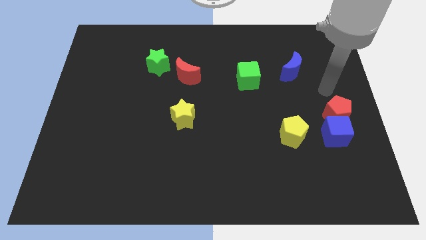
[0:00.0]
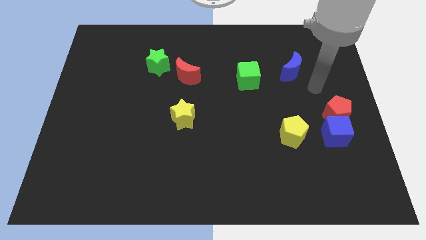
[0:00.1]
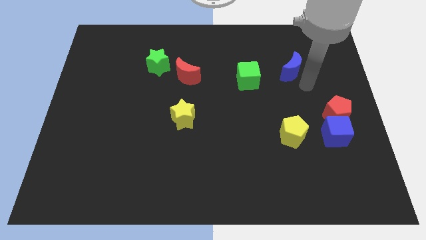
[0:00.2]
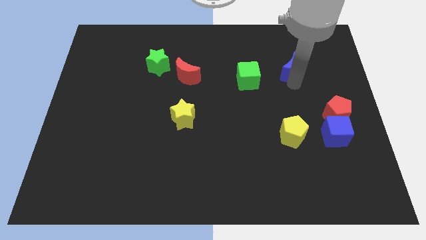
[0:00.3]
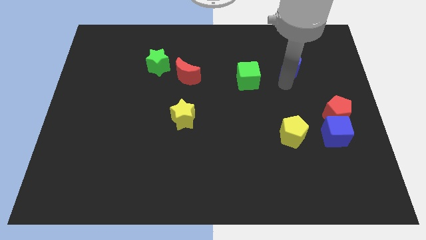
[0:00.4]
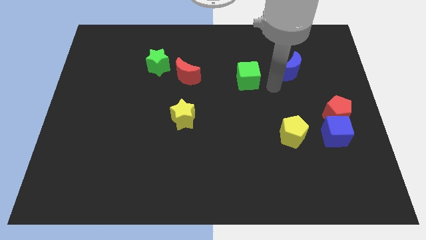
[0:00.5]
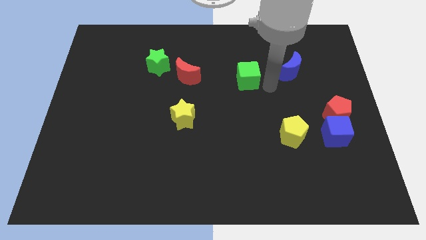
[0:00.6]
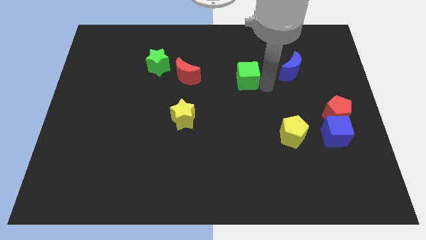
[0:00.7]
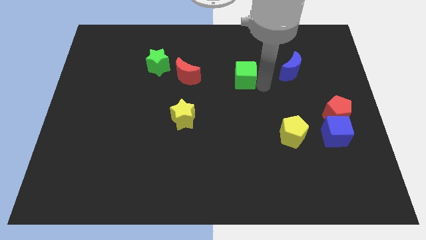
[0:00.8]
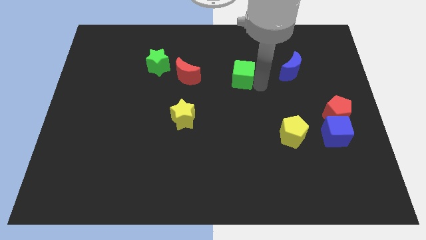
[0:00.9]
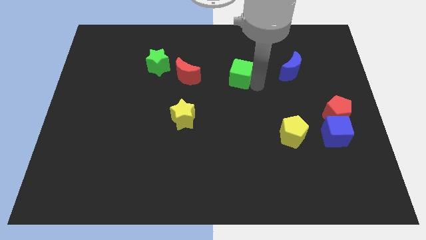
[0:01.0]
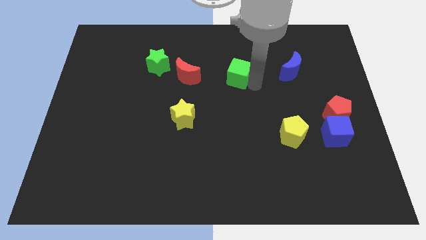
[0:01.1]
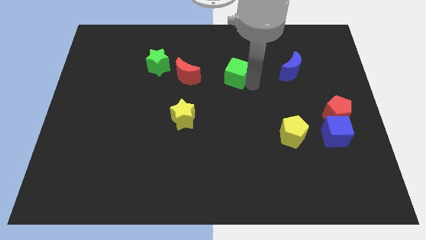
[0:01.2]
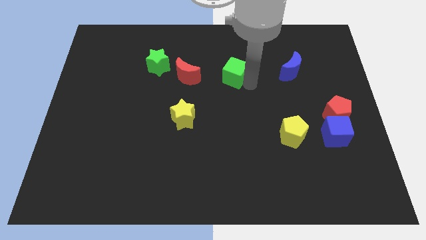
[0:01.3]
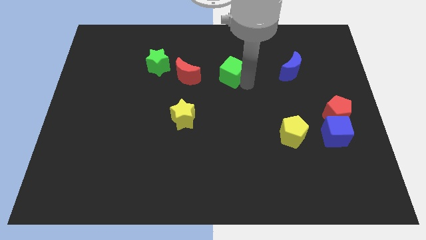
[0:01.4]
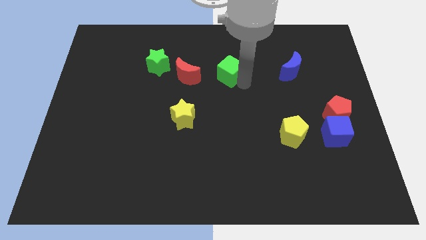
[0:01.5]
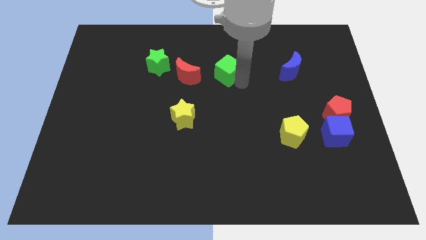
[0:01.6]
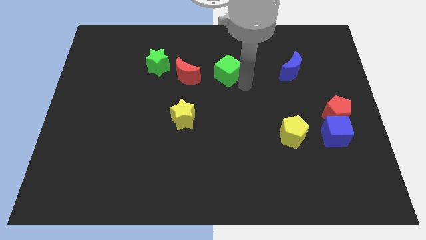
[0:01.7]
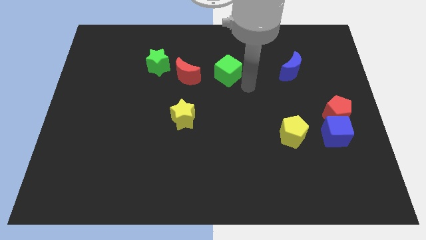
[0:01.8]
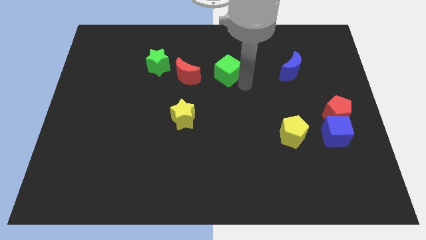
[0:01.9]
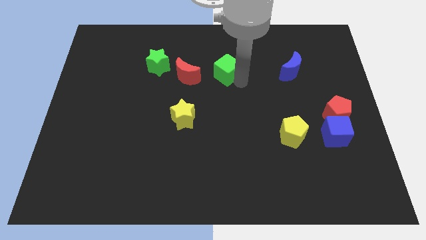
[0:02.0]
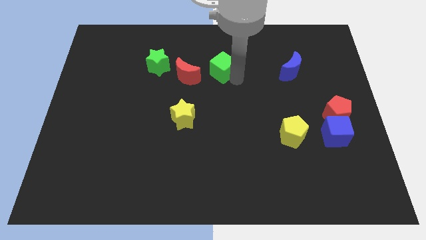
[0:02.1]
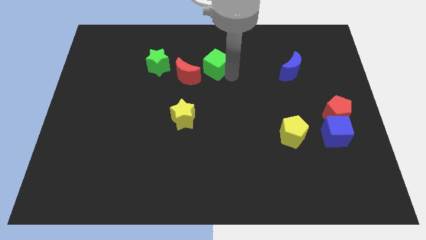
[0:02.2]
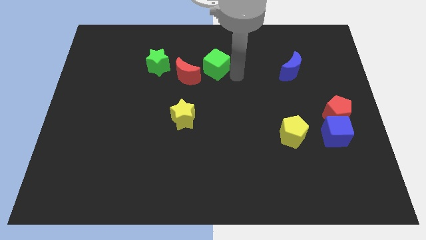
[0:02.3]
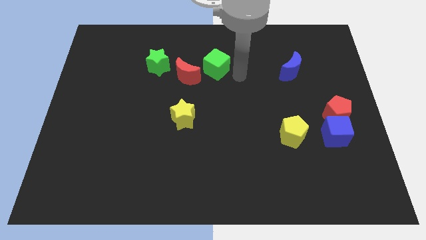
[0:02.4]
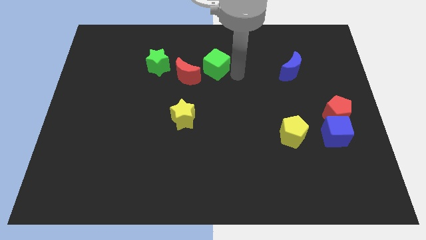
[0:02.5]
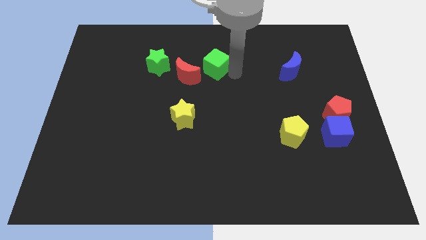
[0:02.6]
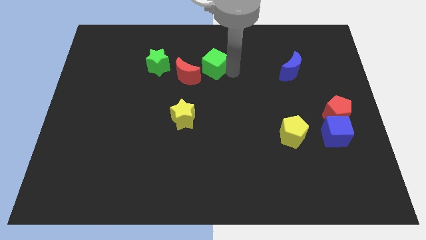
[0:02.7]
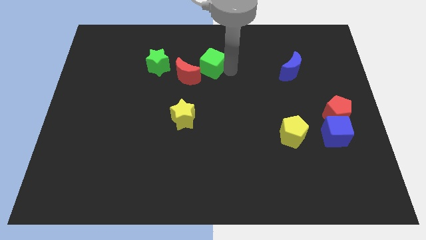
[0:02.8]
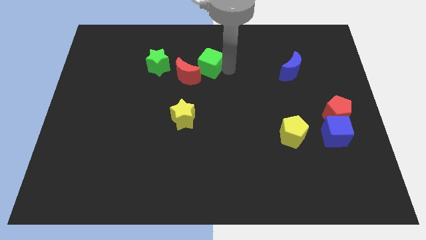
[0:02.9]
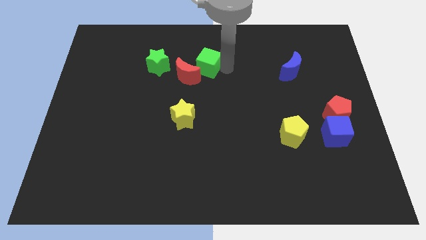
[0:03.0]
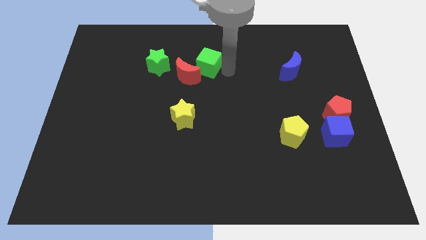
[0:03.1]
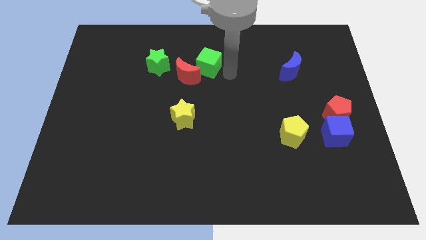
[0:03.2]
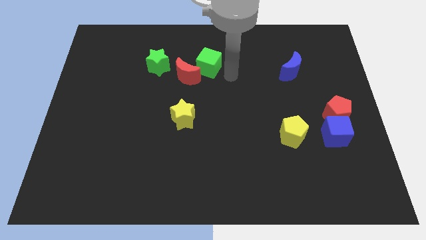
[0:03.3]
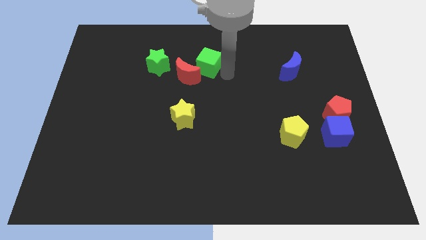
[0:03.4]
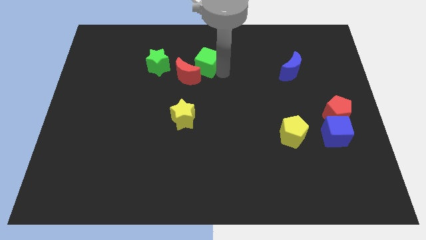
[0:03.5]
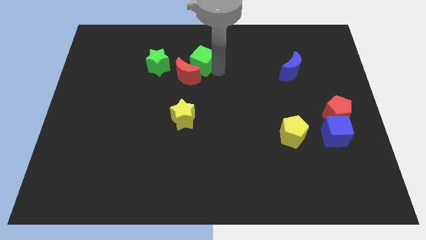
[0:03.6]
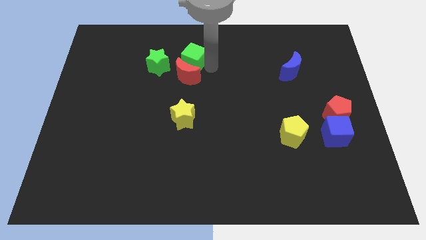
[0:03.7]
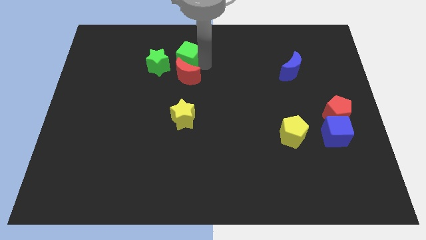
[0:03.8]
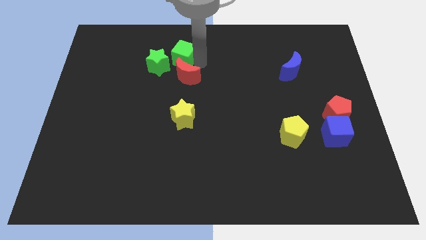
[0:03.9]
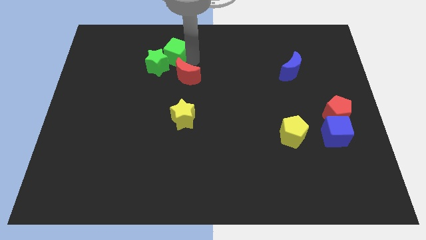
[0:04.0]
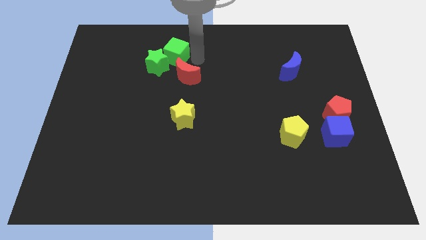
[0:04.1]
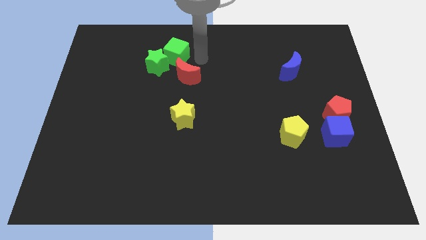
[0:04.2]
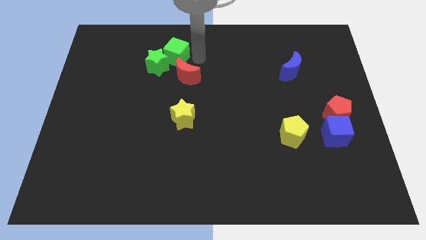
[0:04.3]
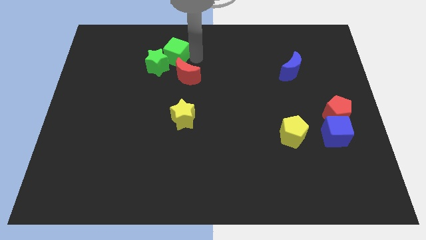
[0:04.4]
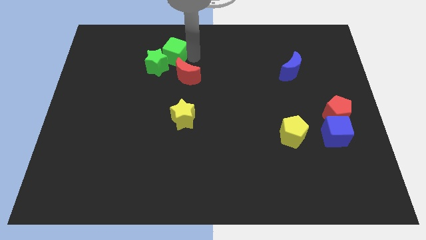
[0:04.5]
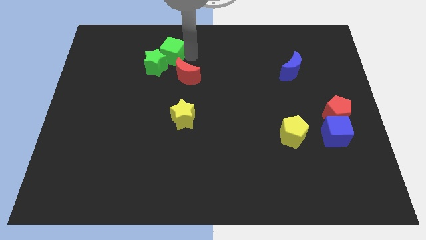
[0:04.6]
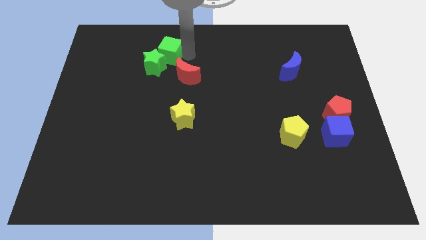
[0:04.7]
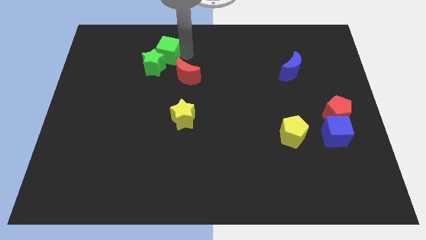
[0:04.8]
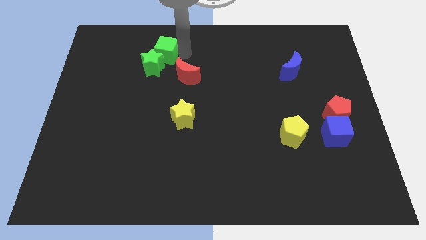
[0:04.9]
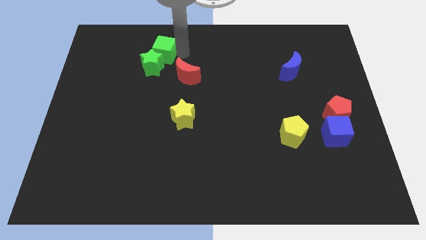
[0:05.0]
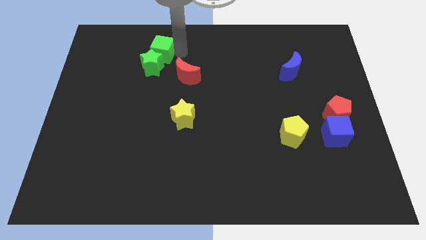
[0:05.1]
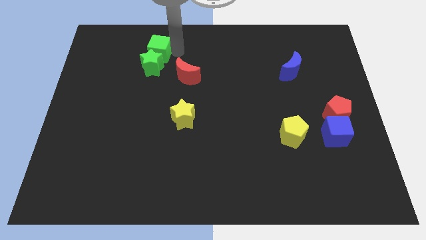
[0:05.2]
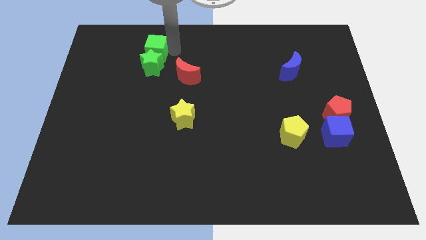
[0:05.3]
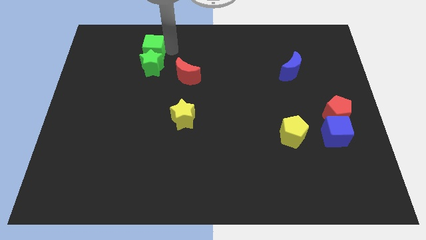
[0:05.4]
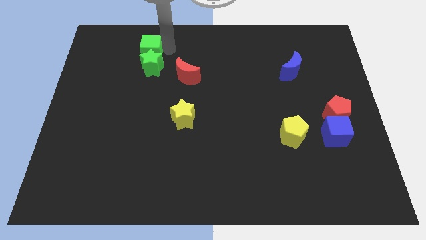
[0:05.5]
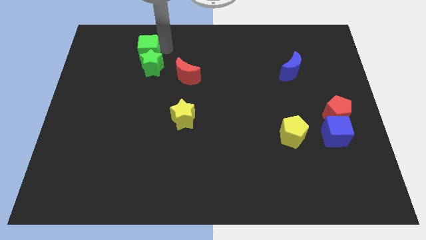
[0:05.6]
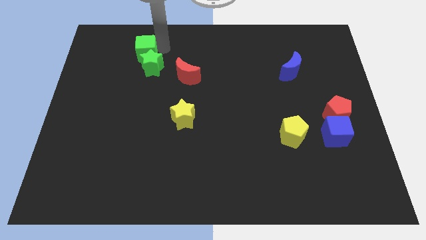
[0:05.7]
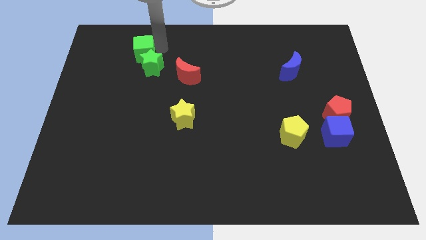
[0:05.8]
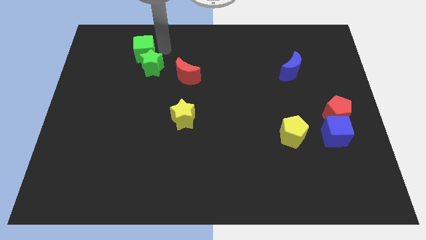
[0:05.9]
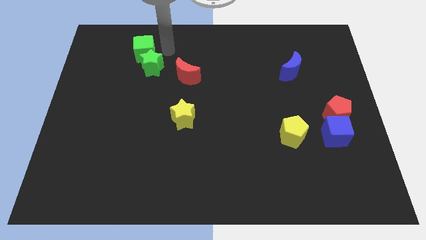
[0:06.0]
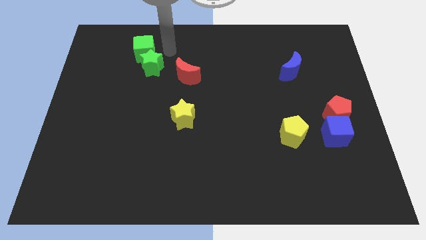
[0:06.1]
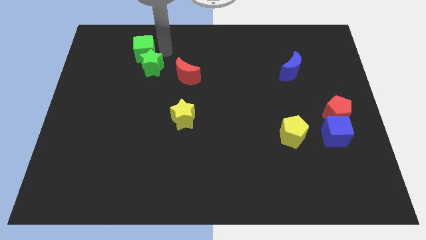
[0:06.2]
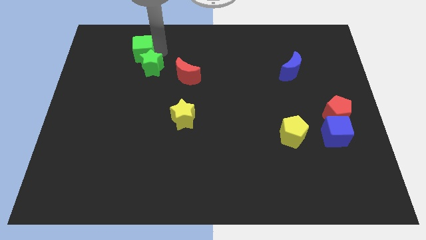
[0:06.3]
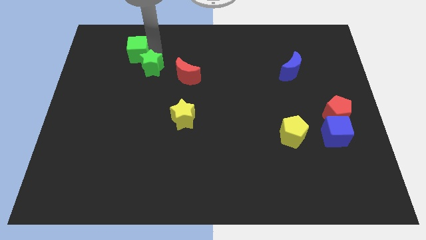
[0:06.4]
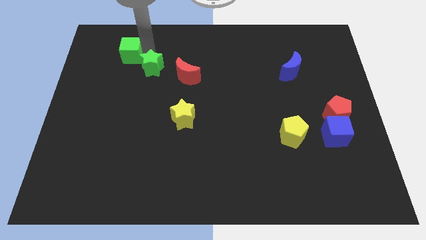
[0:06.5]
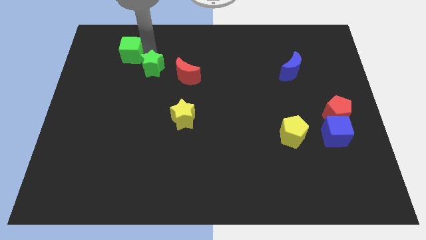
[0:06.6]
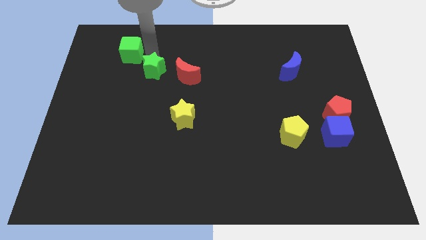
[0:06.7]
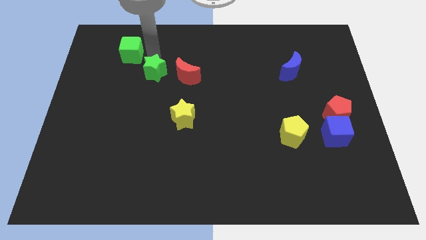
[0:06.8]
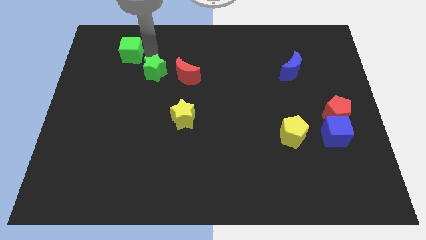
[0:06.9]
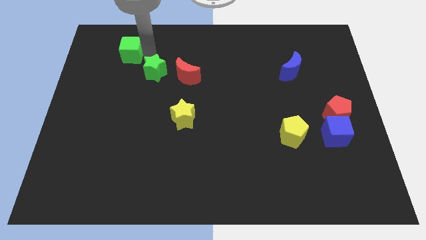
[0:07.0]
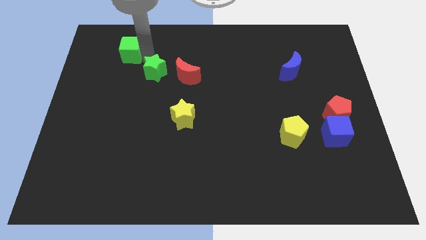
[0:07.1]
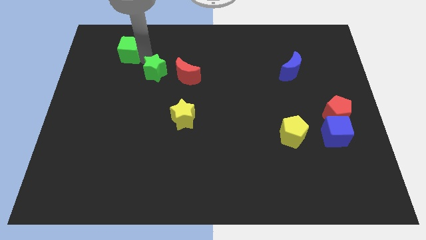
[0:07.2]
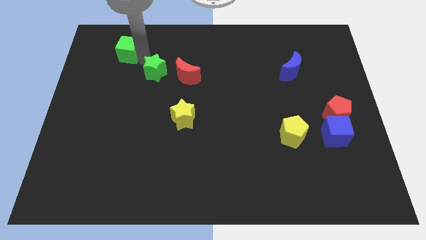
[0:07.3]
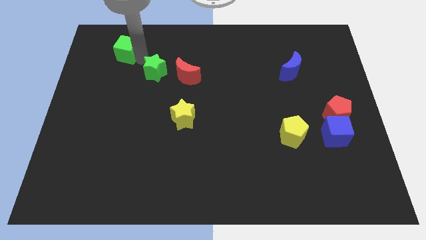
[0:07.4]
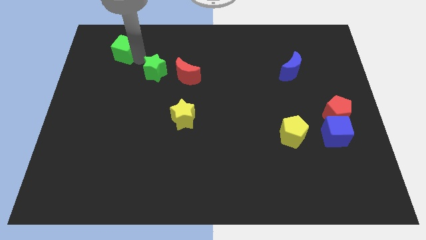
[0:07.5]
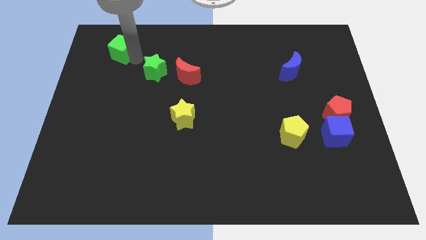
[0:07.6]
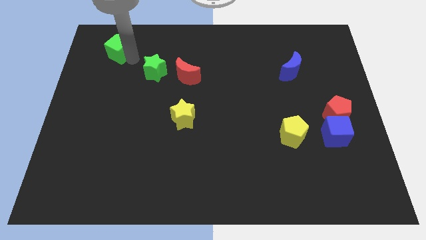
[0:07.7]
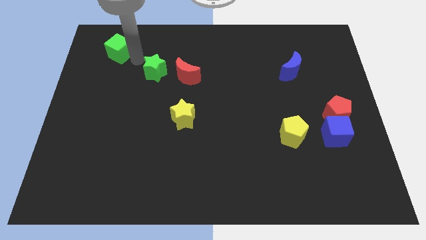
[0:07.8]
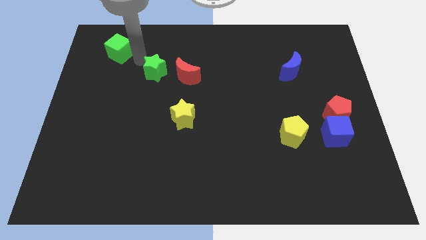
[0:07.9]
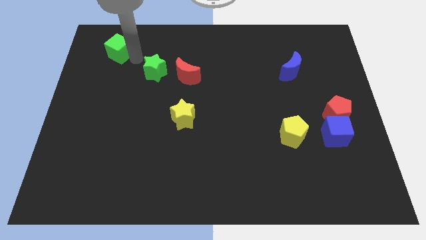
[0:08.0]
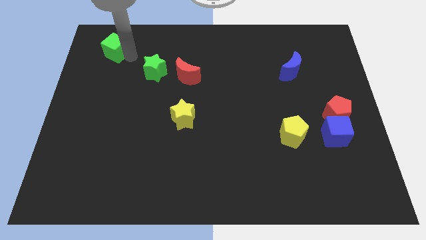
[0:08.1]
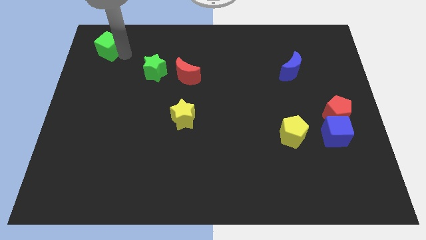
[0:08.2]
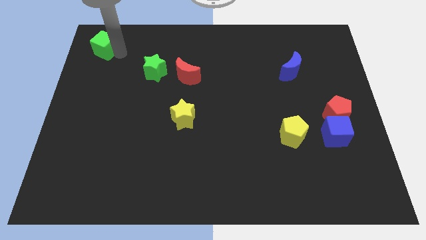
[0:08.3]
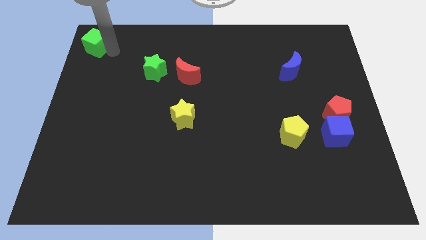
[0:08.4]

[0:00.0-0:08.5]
move the green cube to the upper left corner
